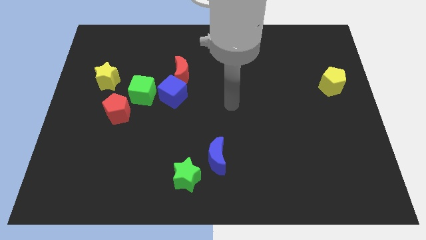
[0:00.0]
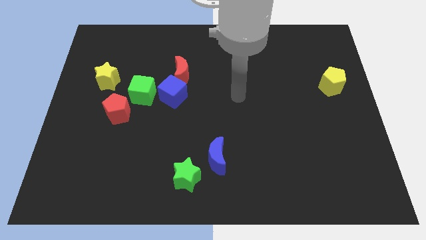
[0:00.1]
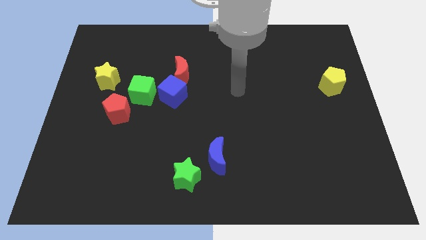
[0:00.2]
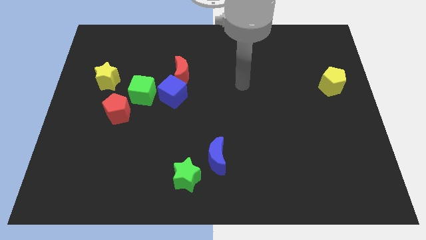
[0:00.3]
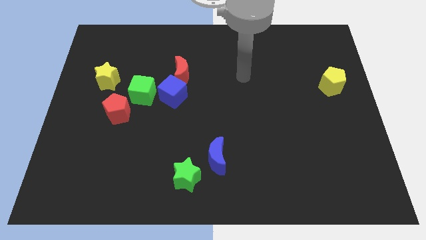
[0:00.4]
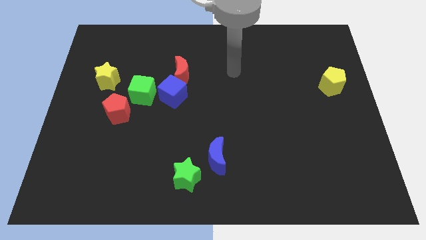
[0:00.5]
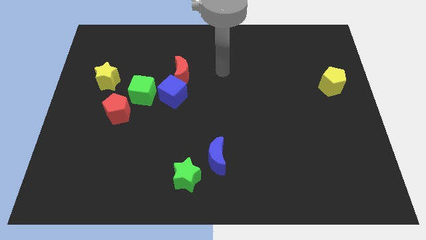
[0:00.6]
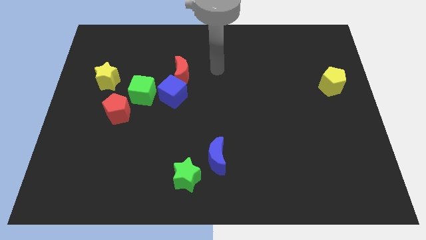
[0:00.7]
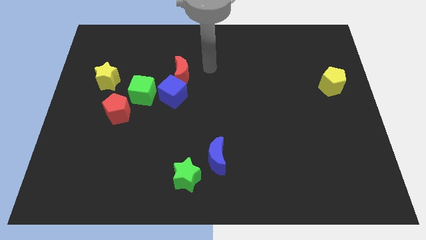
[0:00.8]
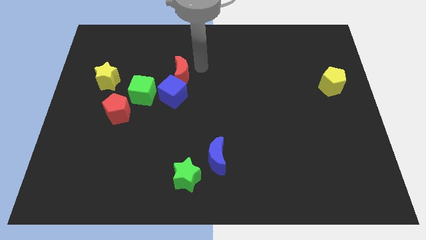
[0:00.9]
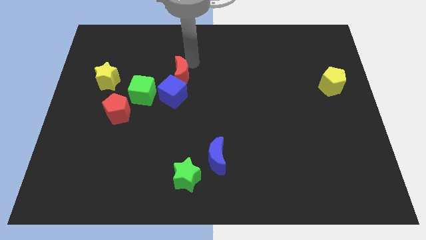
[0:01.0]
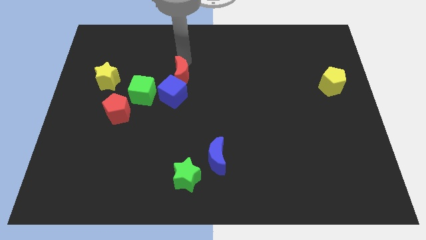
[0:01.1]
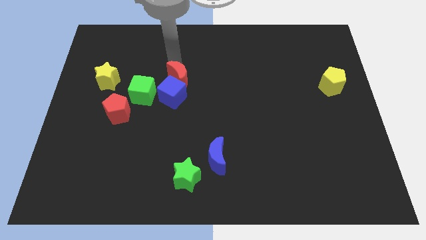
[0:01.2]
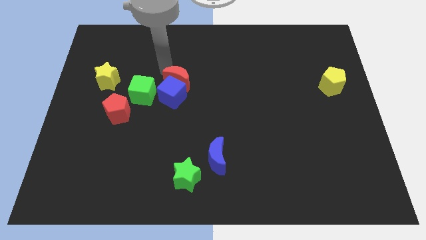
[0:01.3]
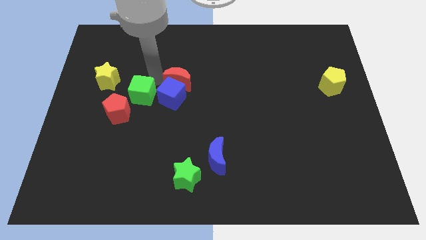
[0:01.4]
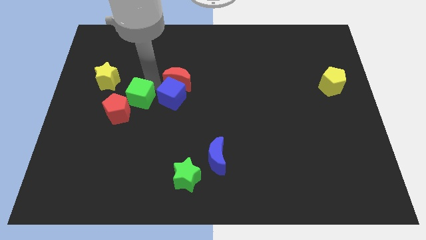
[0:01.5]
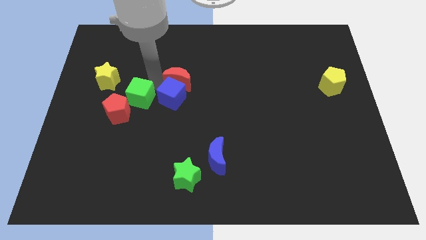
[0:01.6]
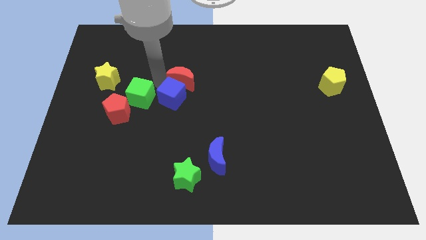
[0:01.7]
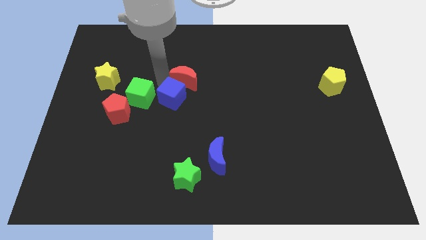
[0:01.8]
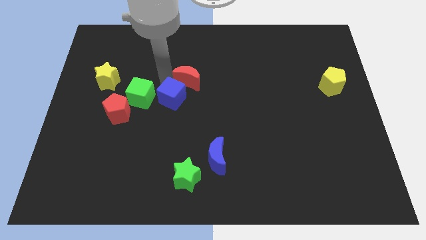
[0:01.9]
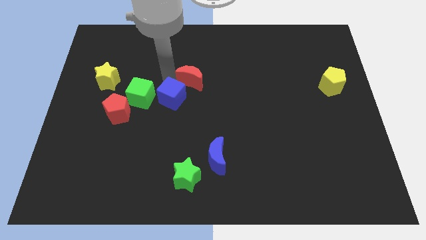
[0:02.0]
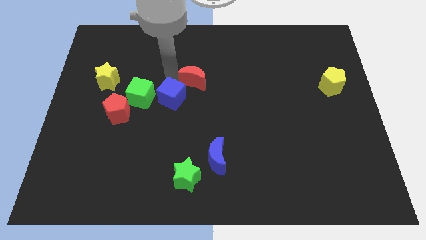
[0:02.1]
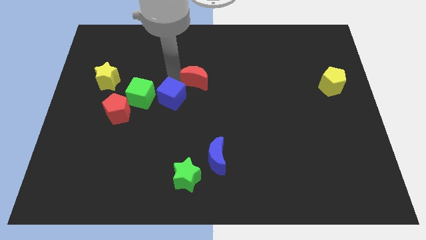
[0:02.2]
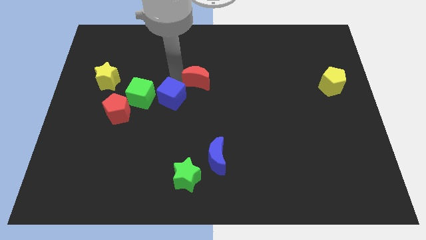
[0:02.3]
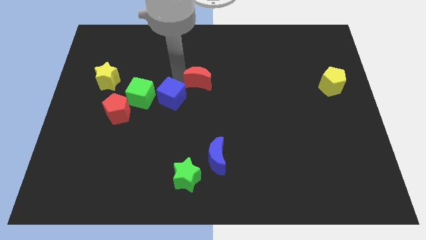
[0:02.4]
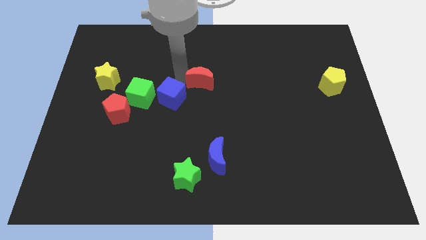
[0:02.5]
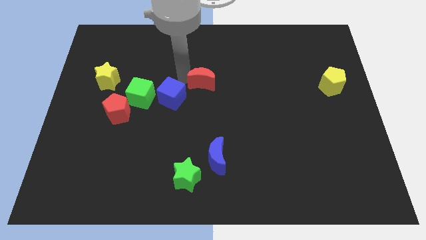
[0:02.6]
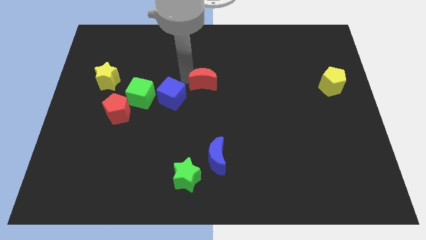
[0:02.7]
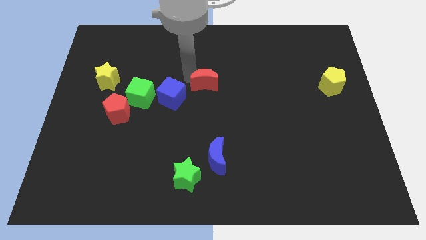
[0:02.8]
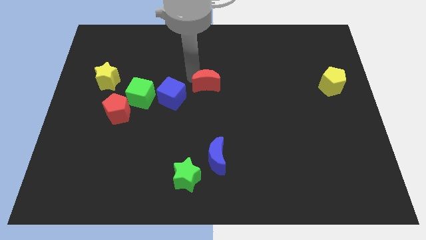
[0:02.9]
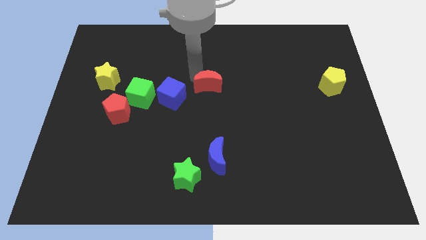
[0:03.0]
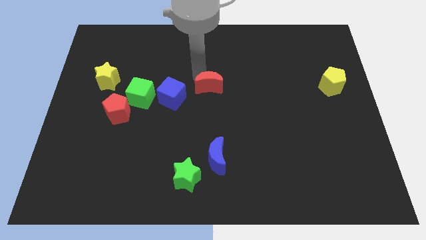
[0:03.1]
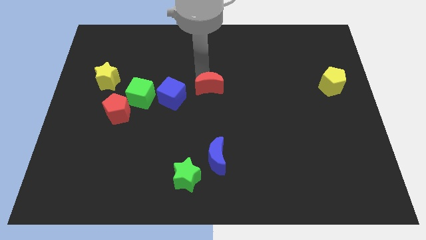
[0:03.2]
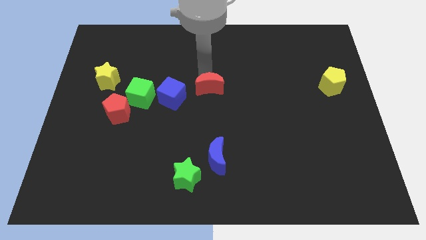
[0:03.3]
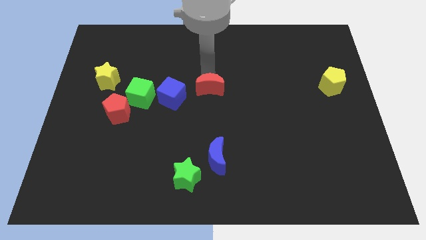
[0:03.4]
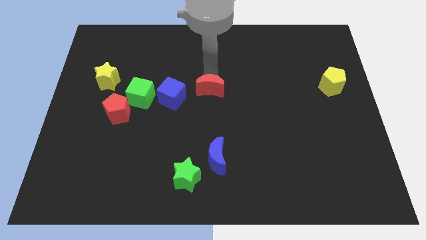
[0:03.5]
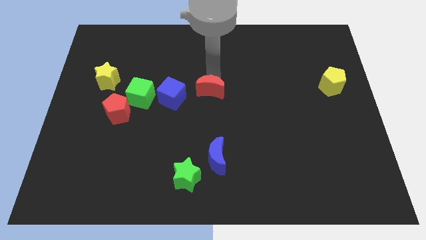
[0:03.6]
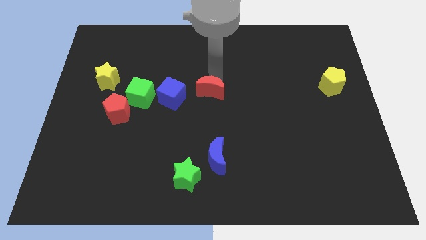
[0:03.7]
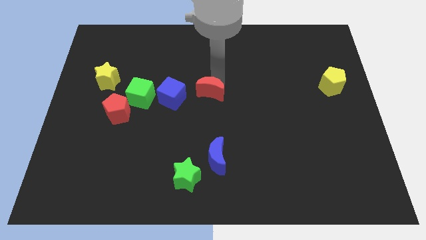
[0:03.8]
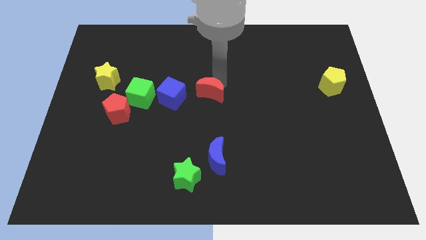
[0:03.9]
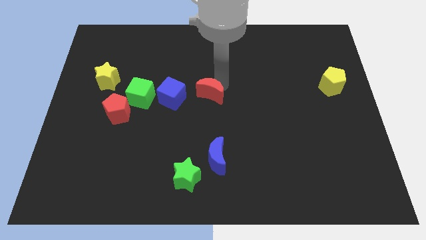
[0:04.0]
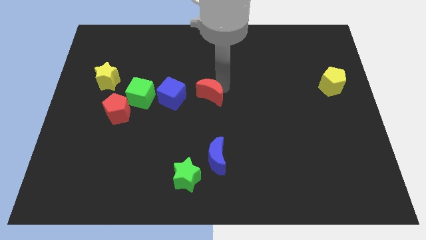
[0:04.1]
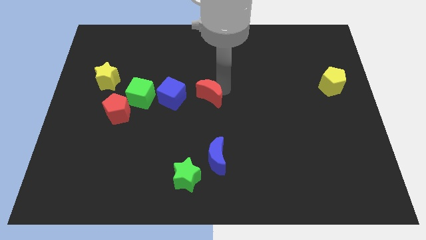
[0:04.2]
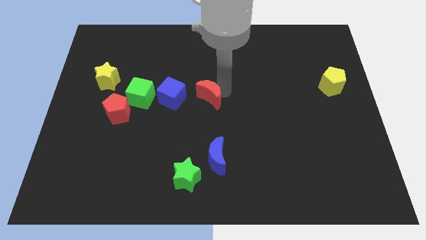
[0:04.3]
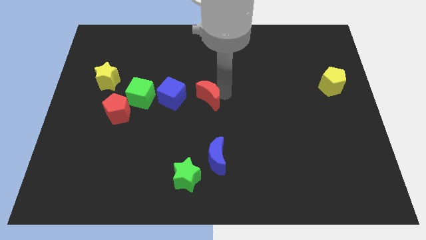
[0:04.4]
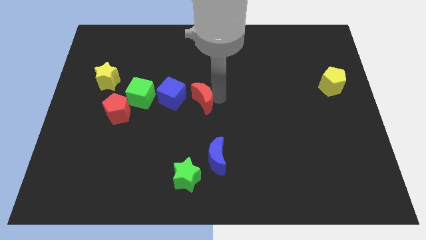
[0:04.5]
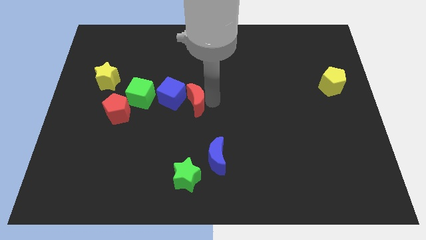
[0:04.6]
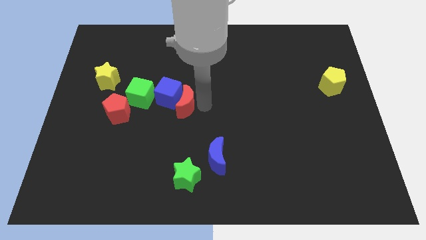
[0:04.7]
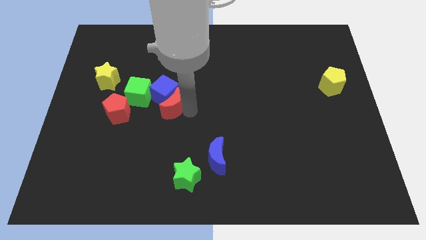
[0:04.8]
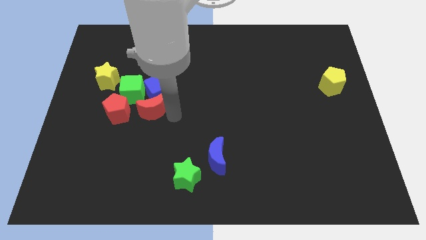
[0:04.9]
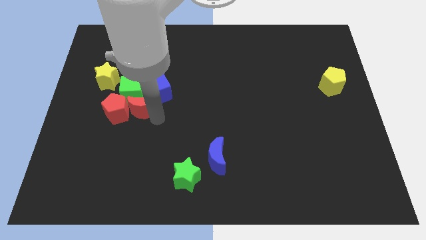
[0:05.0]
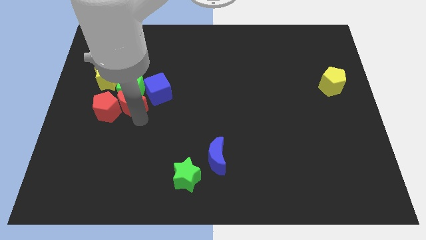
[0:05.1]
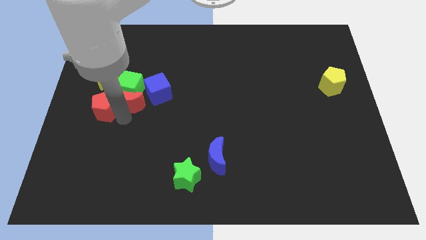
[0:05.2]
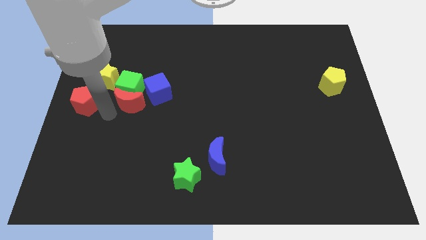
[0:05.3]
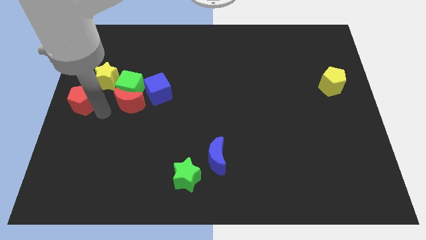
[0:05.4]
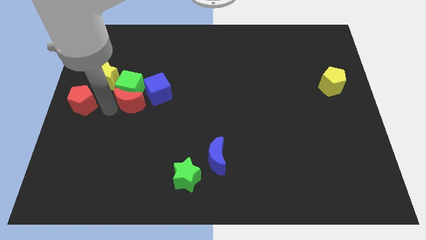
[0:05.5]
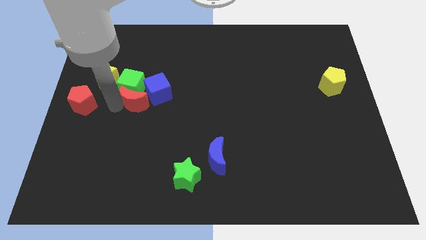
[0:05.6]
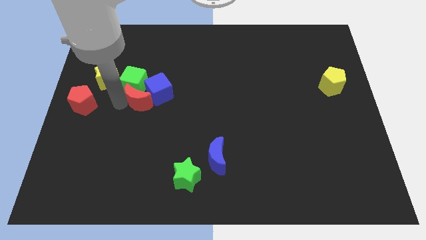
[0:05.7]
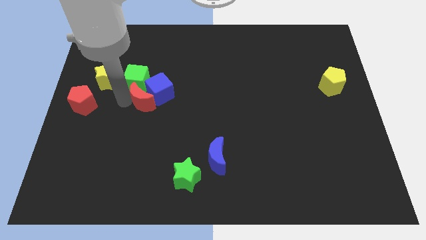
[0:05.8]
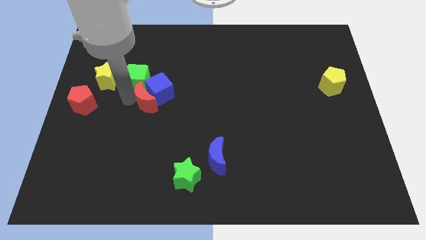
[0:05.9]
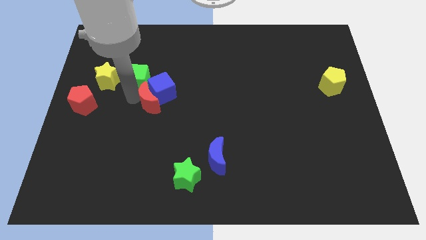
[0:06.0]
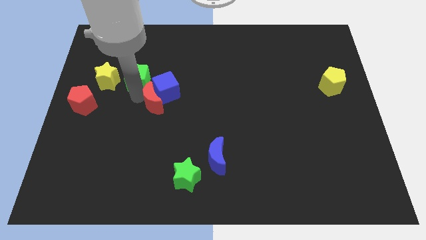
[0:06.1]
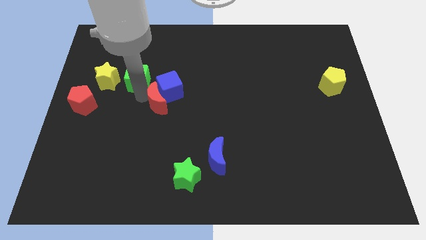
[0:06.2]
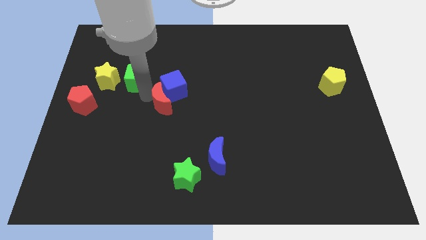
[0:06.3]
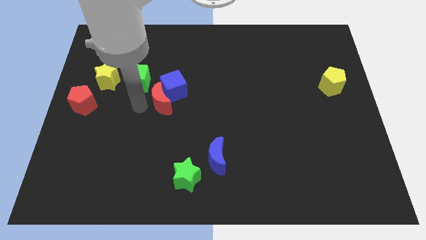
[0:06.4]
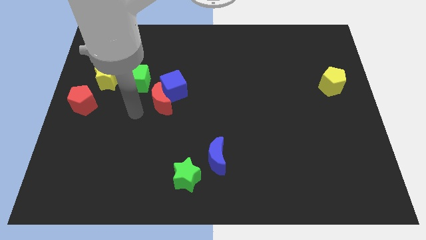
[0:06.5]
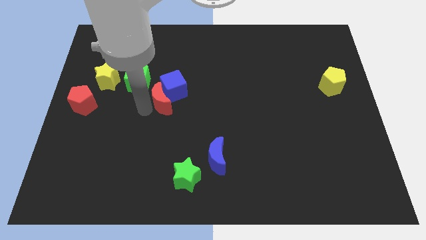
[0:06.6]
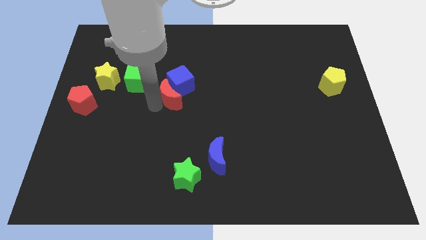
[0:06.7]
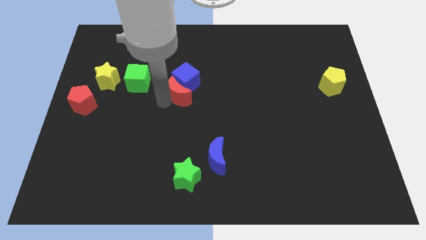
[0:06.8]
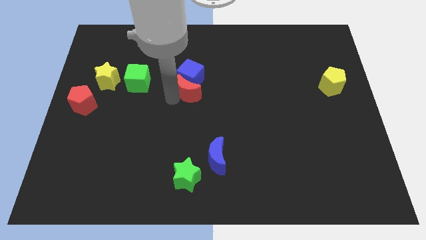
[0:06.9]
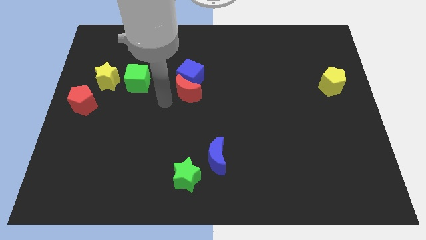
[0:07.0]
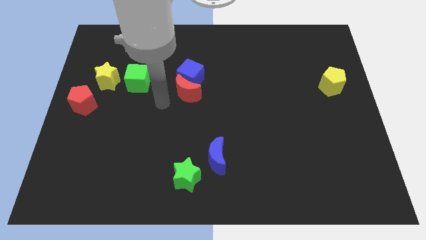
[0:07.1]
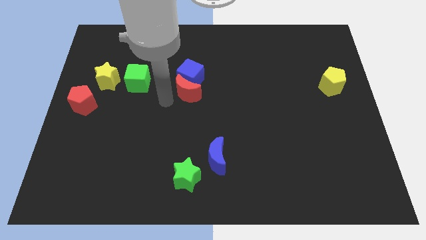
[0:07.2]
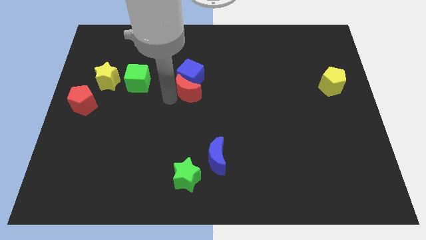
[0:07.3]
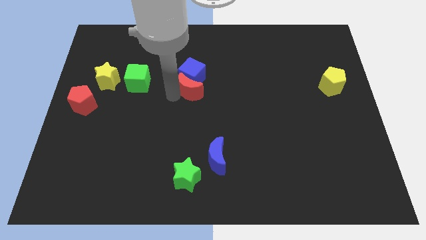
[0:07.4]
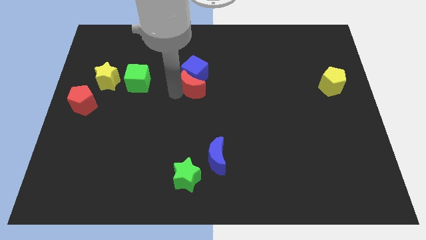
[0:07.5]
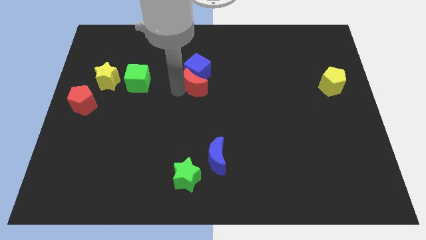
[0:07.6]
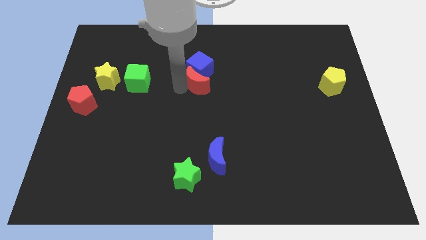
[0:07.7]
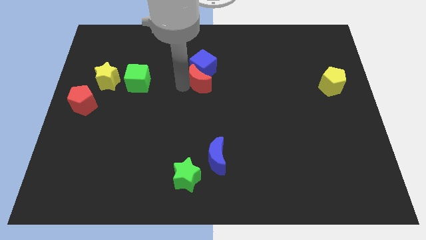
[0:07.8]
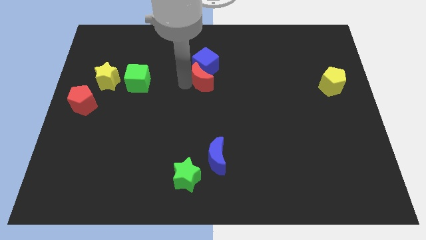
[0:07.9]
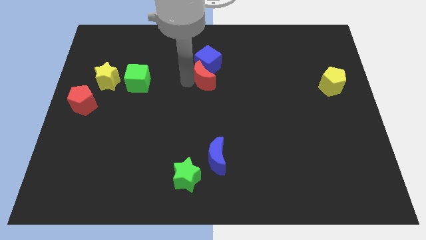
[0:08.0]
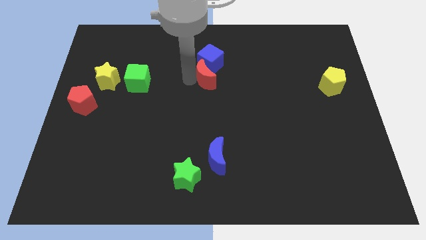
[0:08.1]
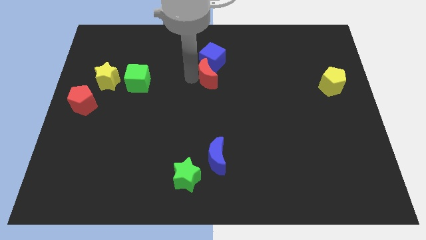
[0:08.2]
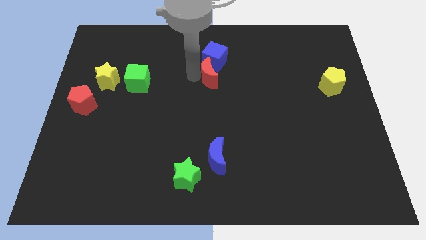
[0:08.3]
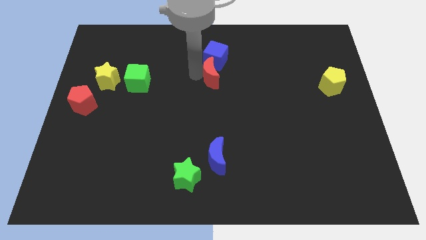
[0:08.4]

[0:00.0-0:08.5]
push the red moon a little bit right
